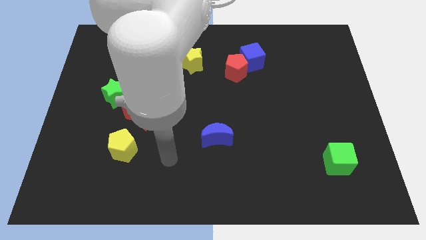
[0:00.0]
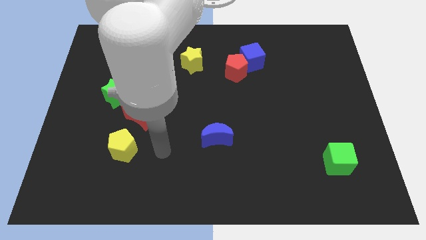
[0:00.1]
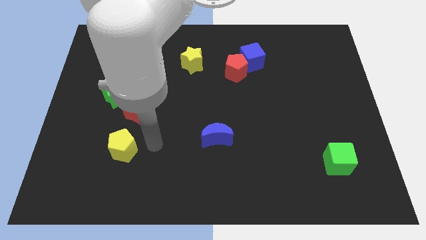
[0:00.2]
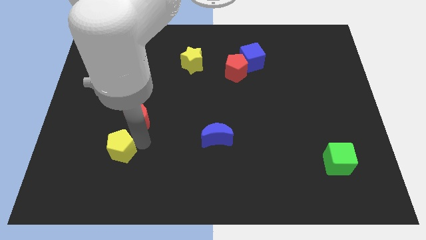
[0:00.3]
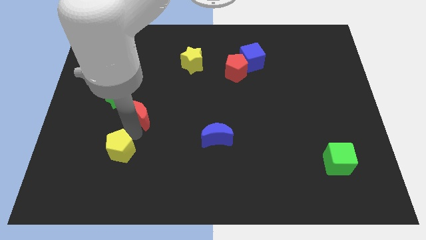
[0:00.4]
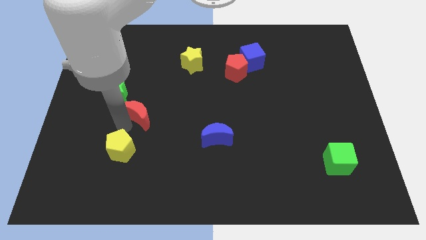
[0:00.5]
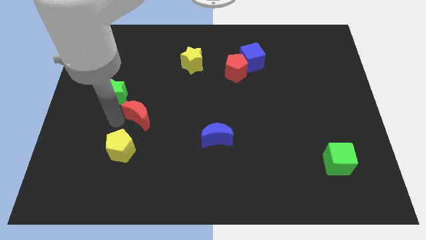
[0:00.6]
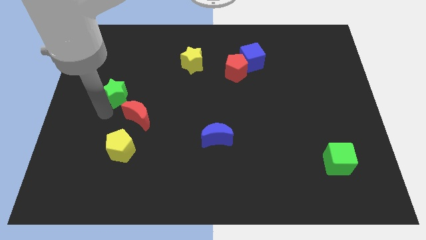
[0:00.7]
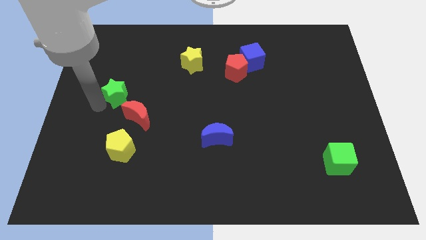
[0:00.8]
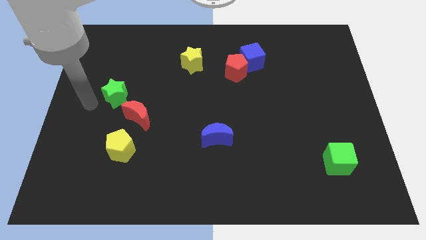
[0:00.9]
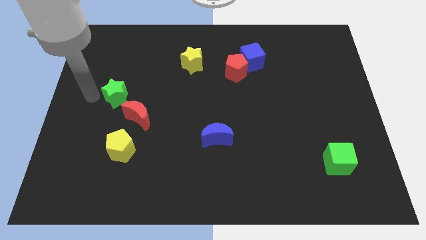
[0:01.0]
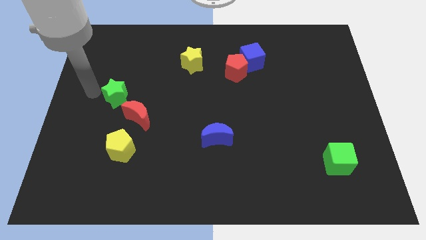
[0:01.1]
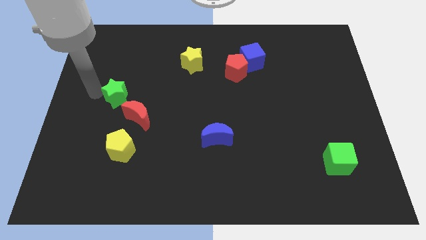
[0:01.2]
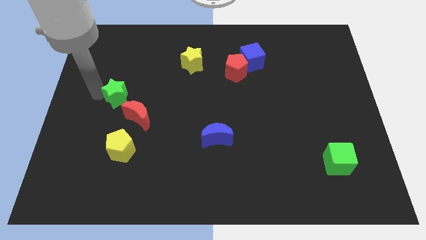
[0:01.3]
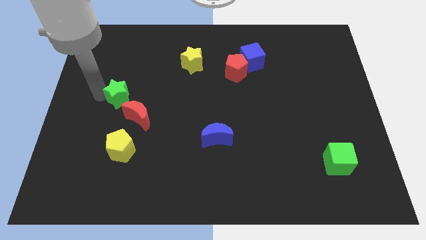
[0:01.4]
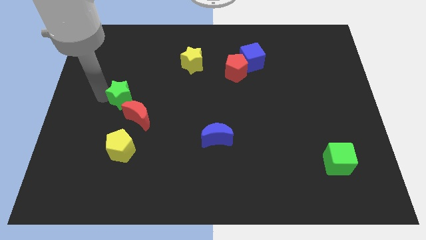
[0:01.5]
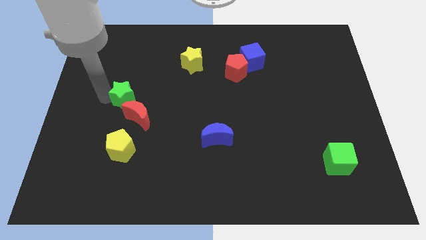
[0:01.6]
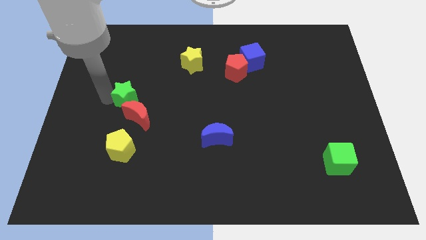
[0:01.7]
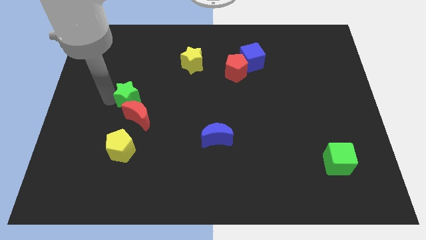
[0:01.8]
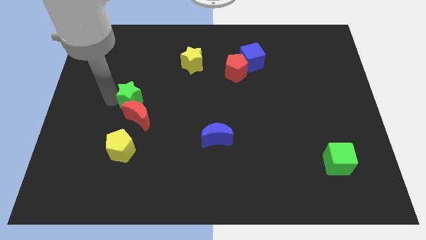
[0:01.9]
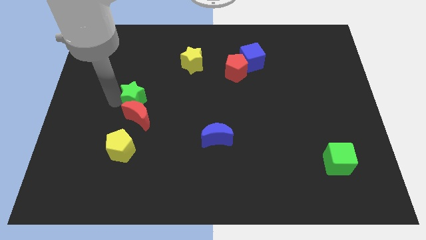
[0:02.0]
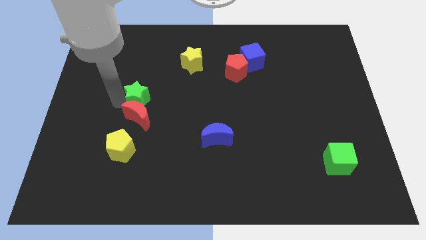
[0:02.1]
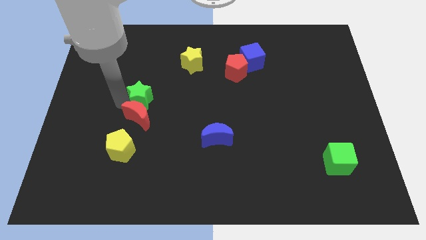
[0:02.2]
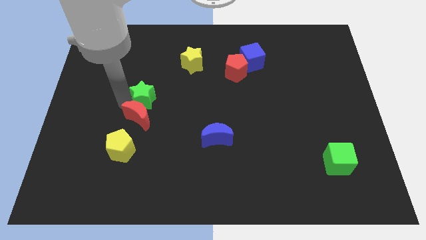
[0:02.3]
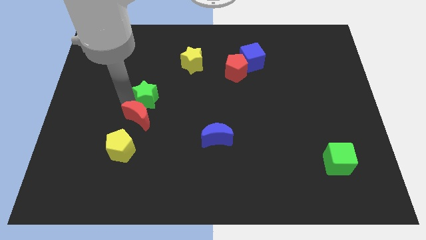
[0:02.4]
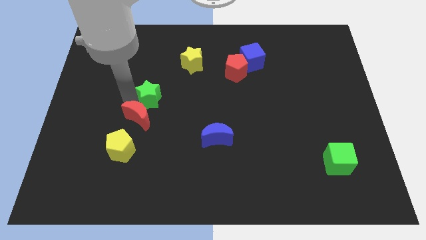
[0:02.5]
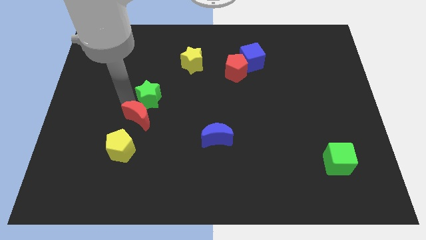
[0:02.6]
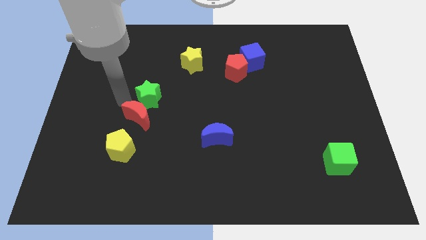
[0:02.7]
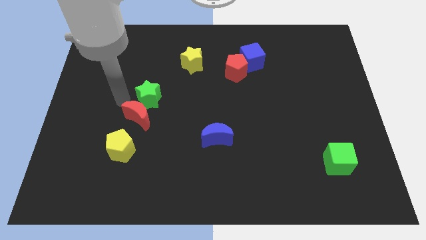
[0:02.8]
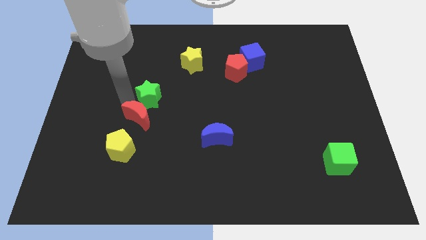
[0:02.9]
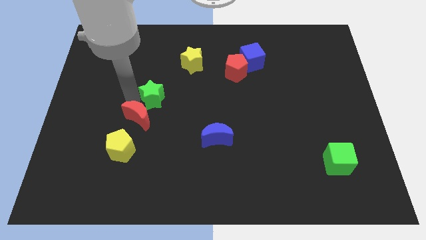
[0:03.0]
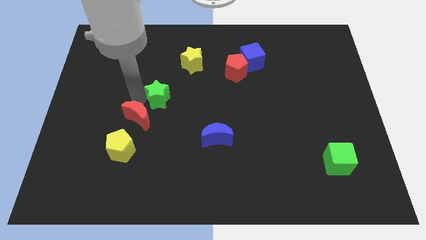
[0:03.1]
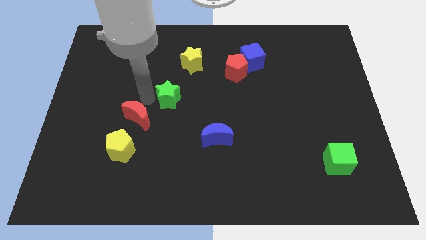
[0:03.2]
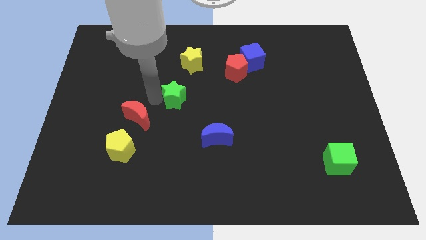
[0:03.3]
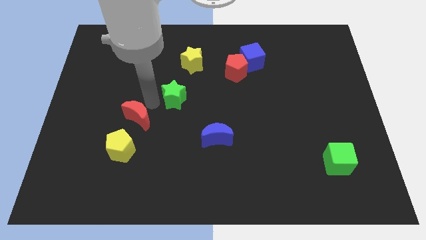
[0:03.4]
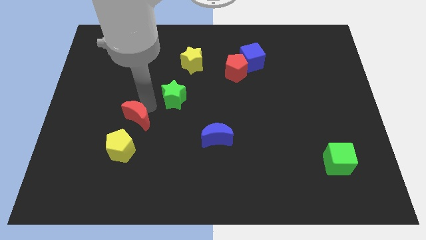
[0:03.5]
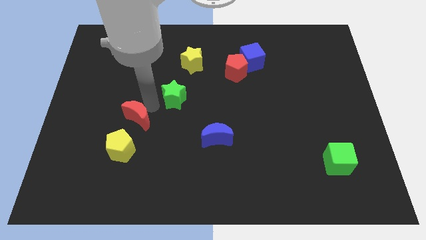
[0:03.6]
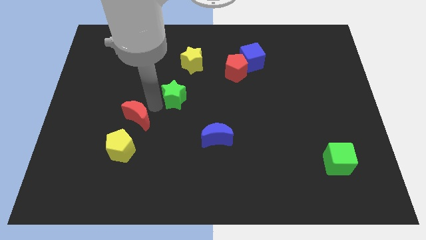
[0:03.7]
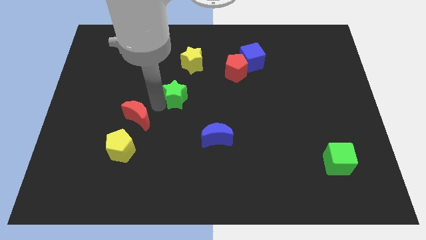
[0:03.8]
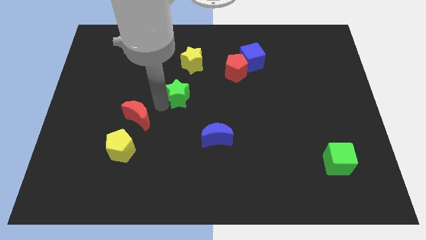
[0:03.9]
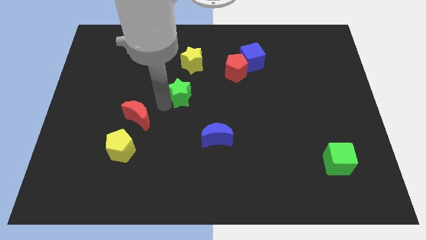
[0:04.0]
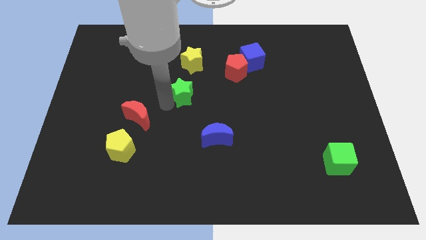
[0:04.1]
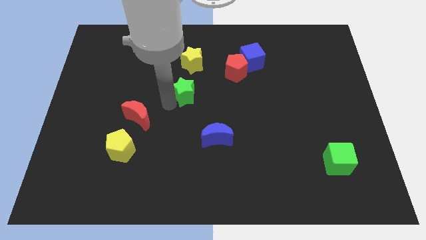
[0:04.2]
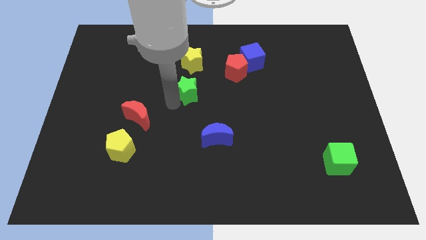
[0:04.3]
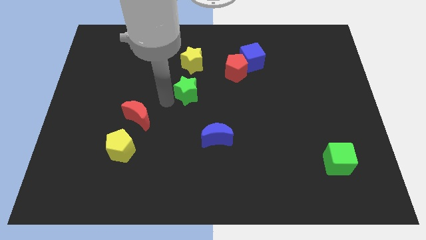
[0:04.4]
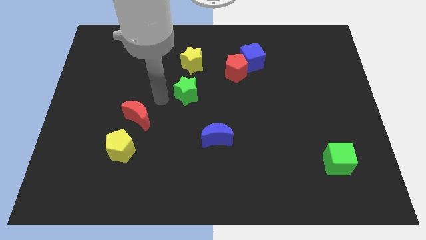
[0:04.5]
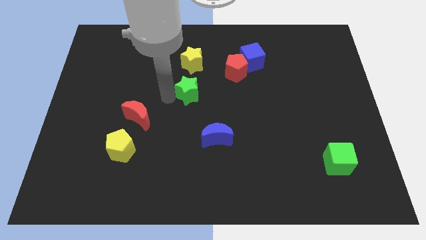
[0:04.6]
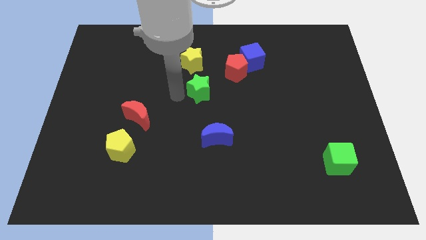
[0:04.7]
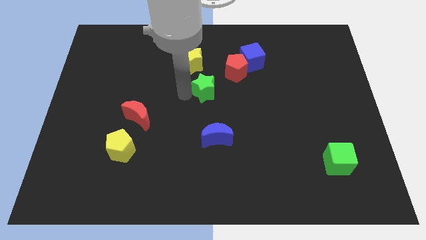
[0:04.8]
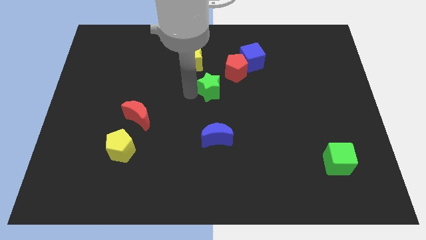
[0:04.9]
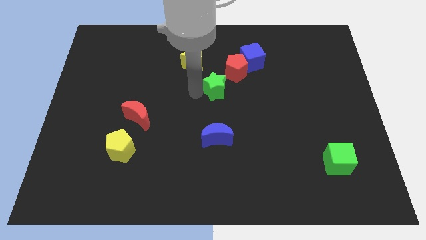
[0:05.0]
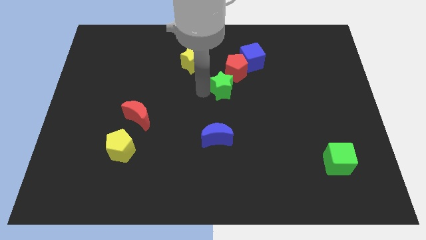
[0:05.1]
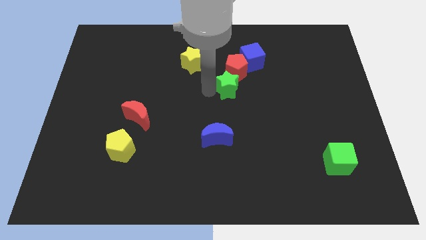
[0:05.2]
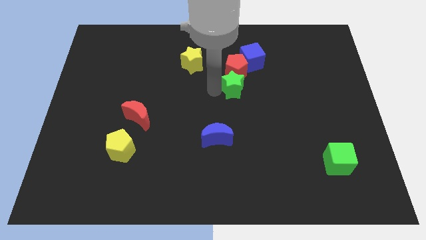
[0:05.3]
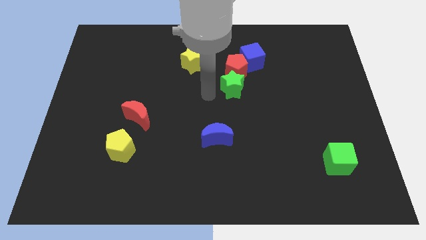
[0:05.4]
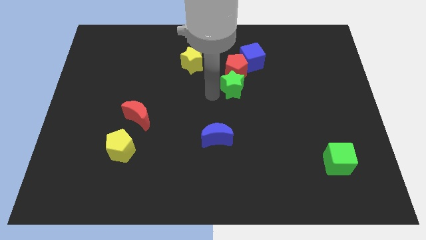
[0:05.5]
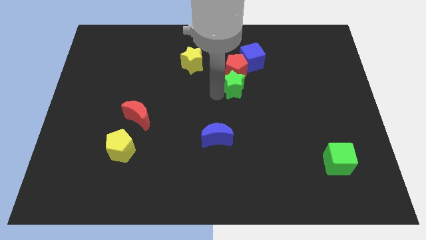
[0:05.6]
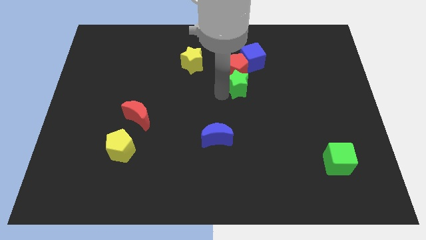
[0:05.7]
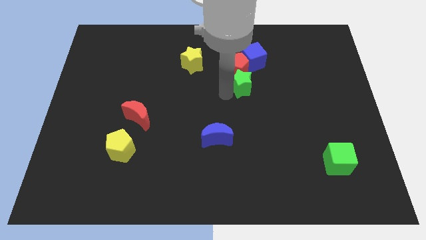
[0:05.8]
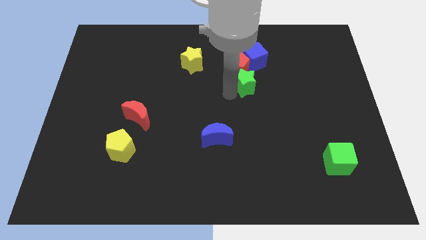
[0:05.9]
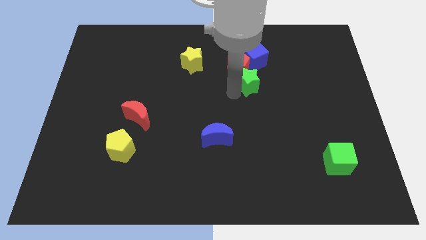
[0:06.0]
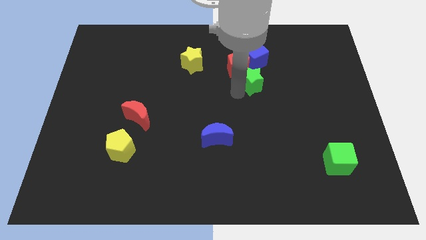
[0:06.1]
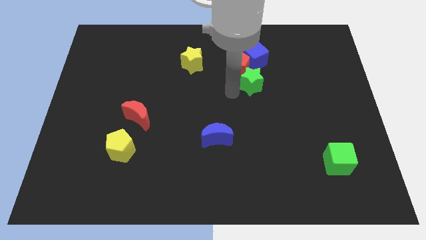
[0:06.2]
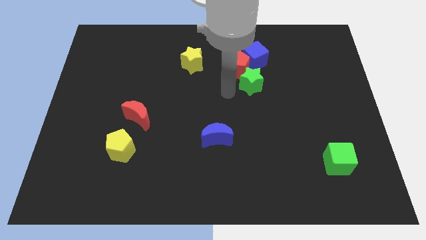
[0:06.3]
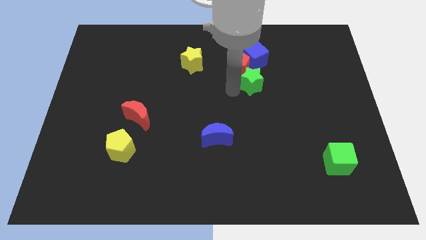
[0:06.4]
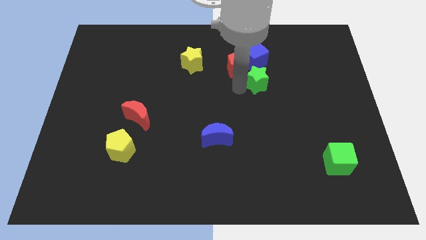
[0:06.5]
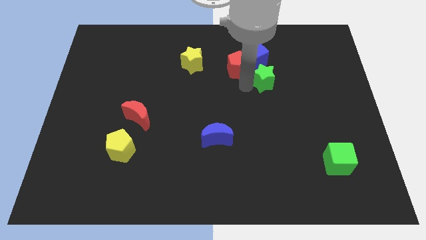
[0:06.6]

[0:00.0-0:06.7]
put the green star diagonally down and to the right of the blue cube

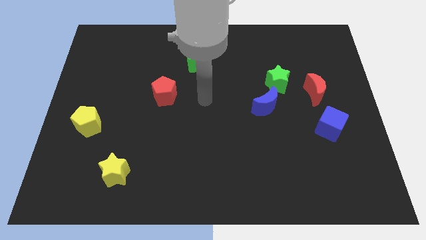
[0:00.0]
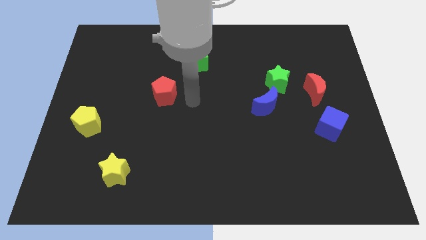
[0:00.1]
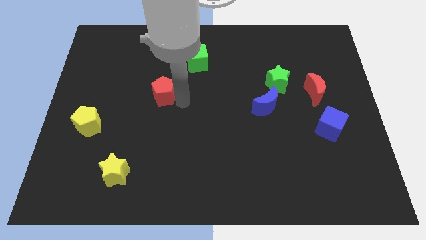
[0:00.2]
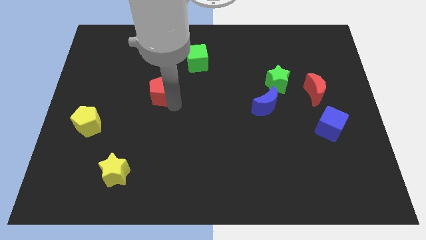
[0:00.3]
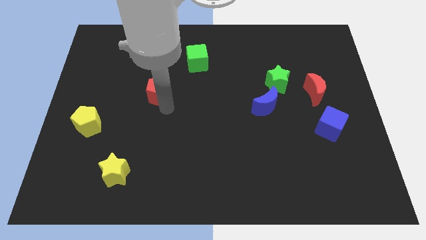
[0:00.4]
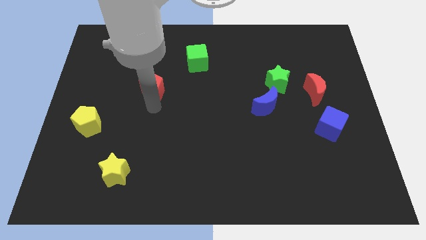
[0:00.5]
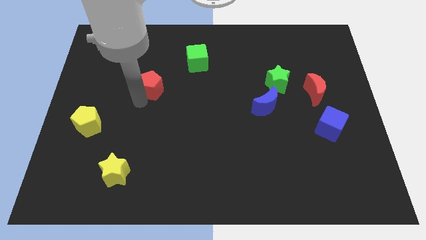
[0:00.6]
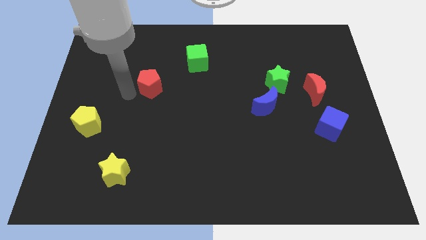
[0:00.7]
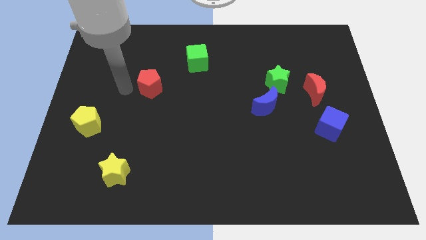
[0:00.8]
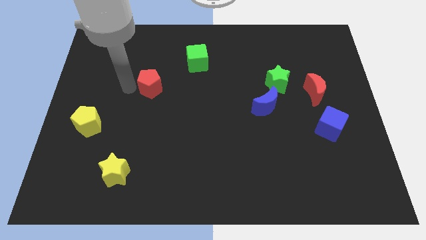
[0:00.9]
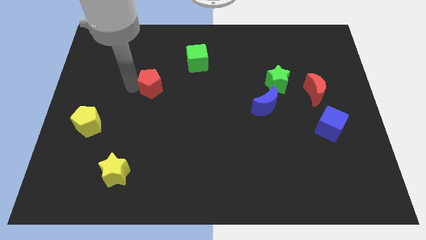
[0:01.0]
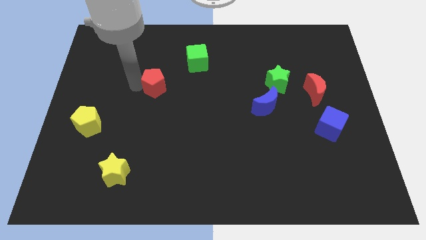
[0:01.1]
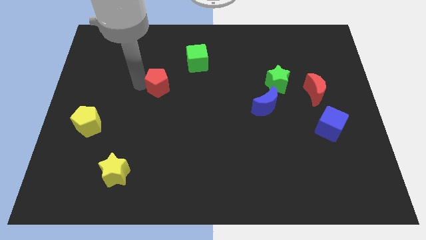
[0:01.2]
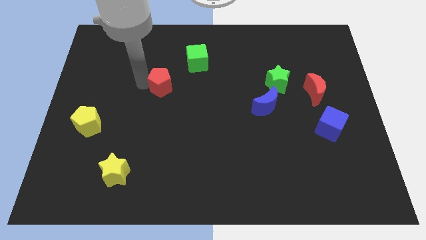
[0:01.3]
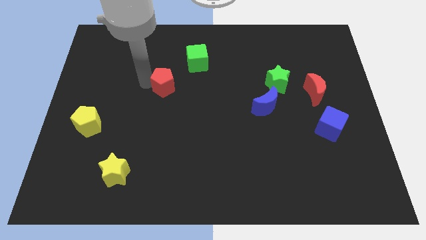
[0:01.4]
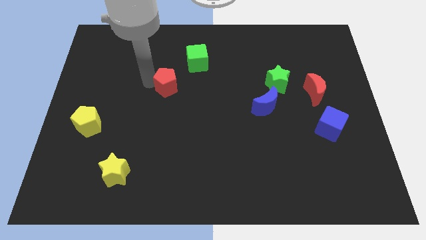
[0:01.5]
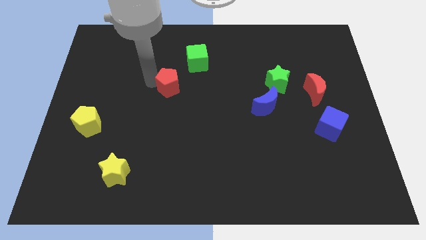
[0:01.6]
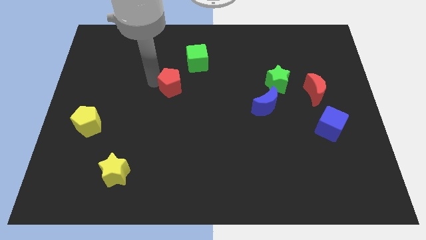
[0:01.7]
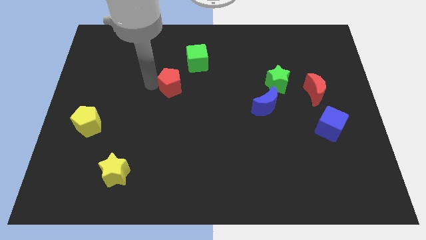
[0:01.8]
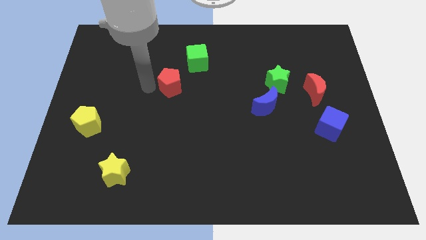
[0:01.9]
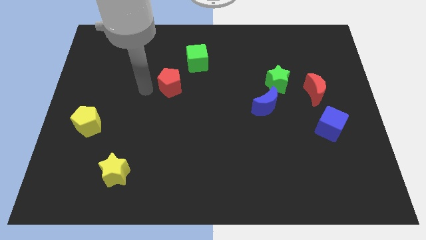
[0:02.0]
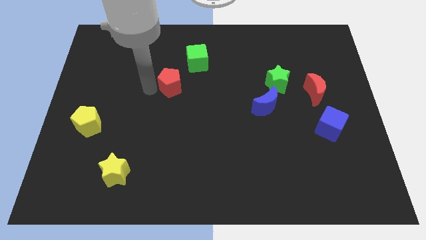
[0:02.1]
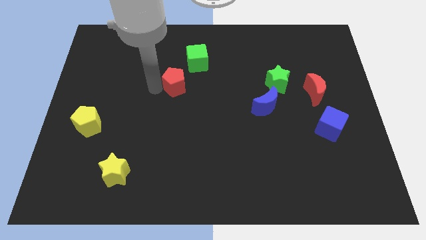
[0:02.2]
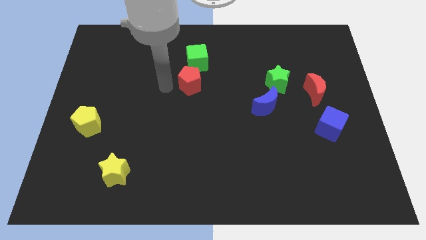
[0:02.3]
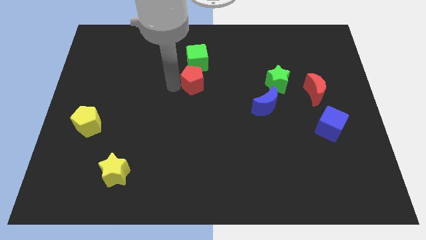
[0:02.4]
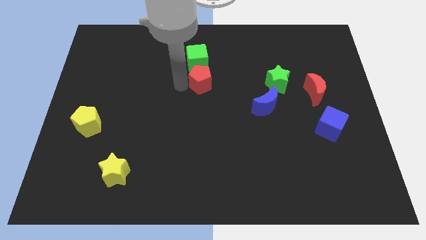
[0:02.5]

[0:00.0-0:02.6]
move the red pentagon to the bottom right of the green cube
